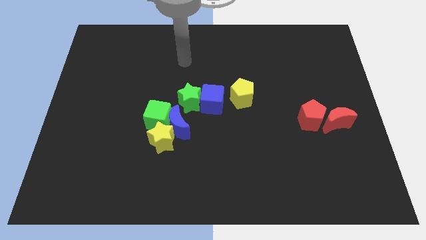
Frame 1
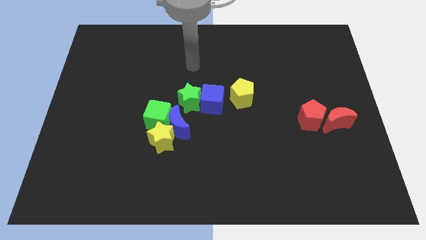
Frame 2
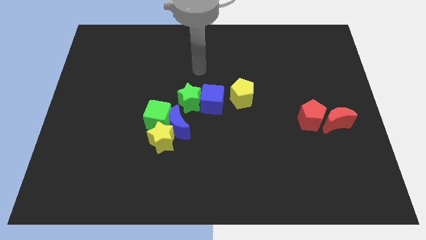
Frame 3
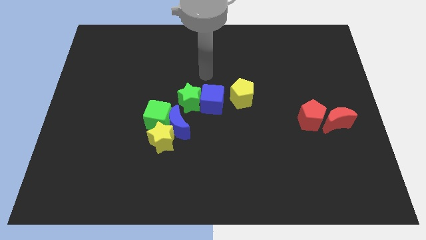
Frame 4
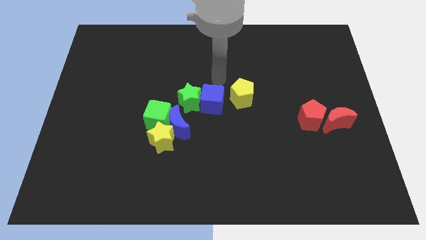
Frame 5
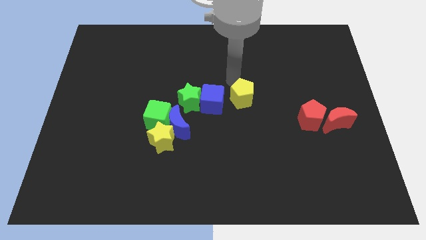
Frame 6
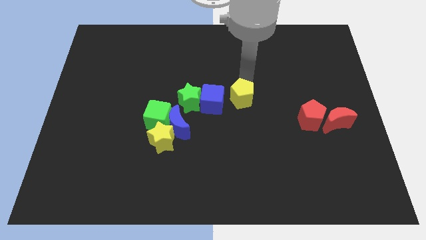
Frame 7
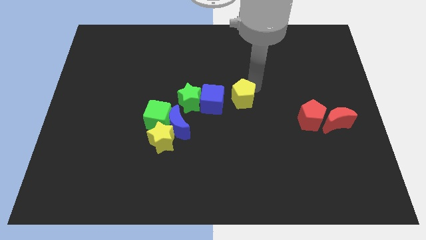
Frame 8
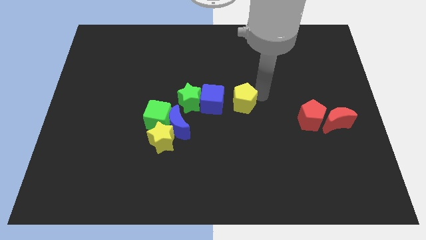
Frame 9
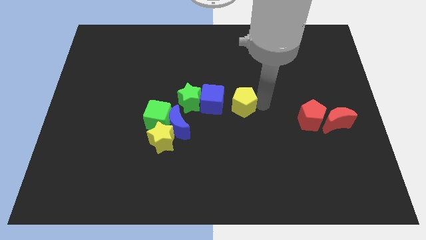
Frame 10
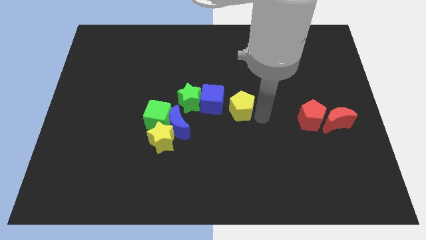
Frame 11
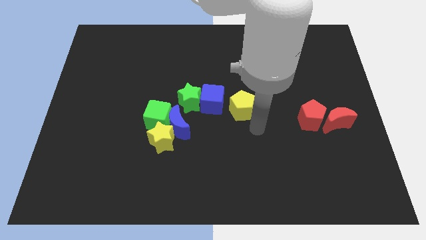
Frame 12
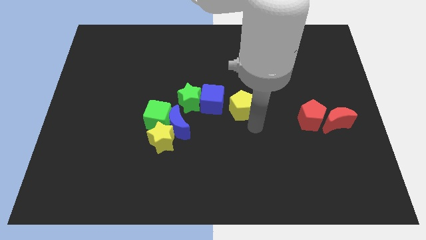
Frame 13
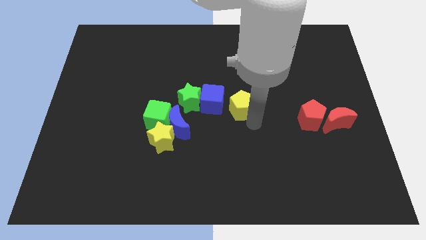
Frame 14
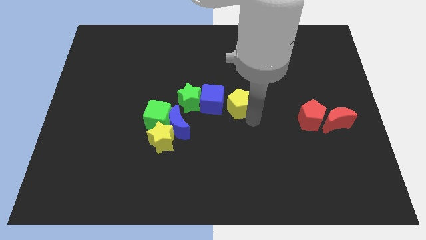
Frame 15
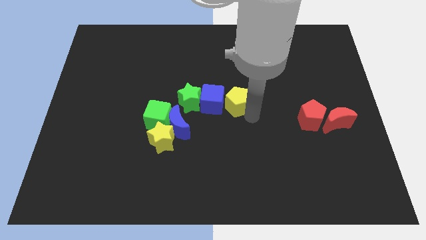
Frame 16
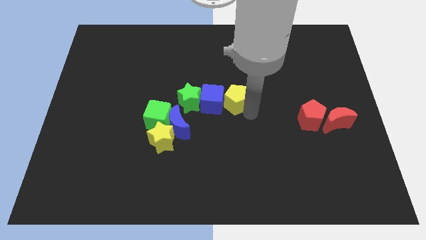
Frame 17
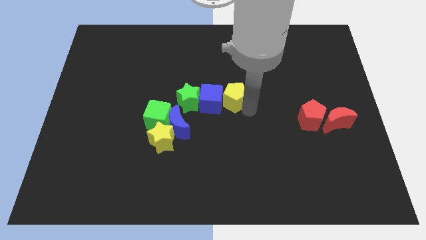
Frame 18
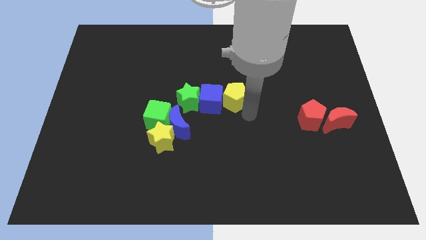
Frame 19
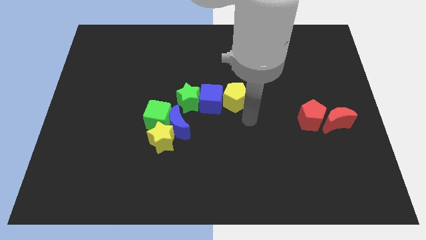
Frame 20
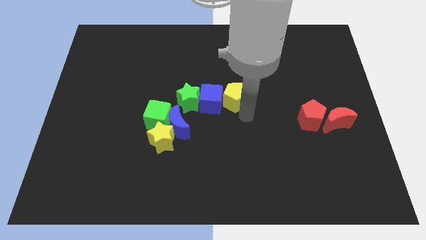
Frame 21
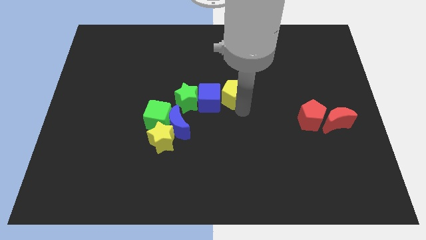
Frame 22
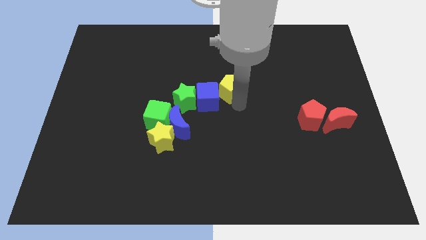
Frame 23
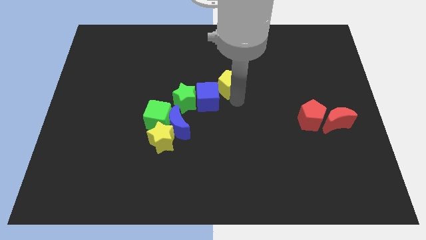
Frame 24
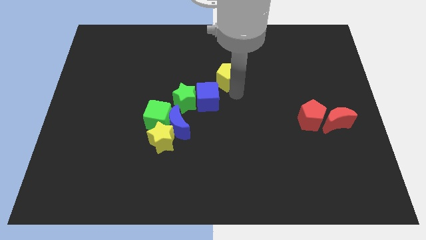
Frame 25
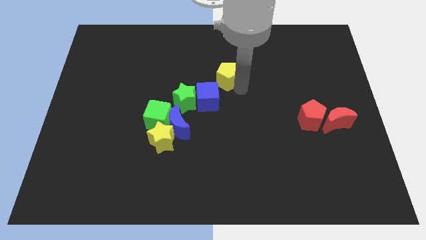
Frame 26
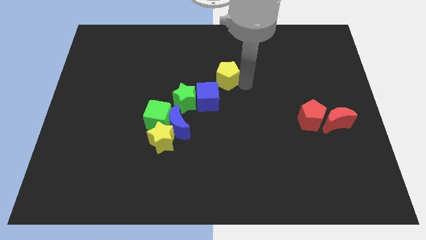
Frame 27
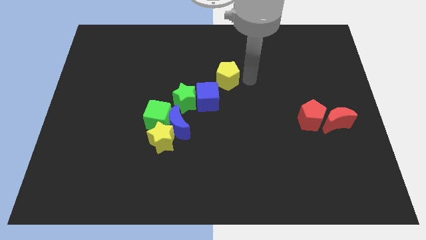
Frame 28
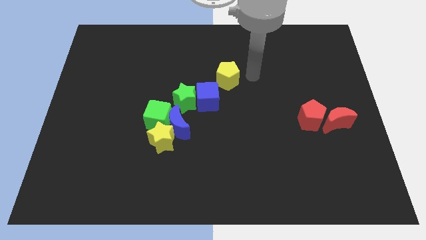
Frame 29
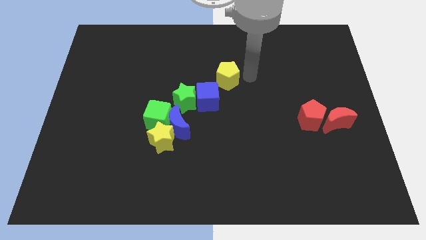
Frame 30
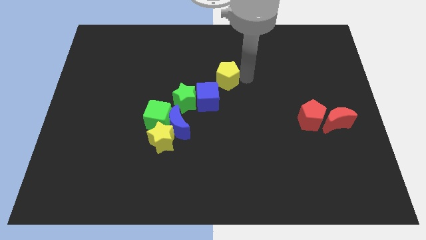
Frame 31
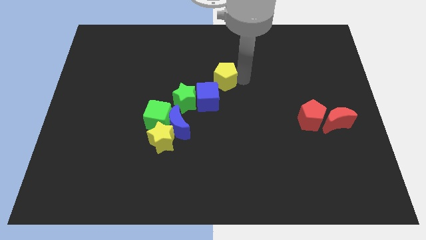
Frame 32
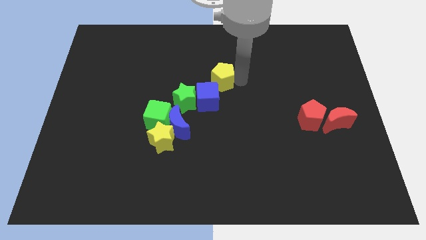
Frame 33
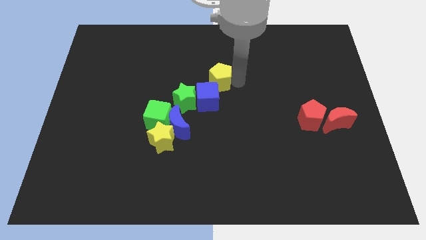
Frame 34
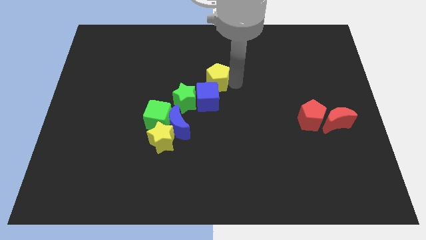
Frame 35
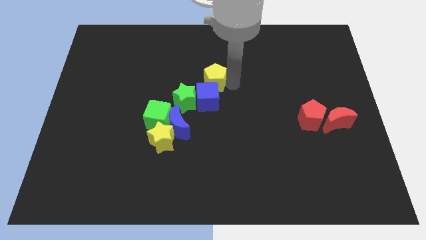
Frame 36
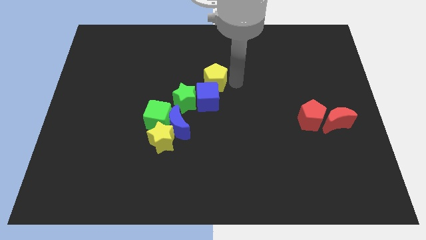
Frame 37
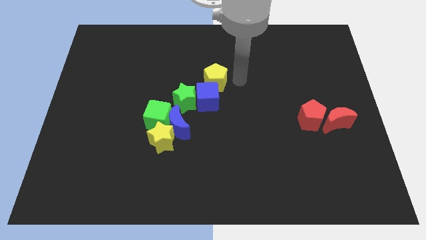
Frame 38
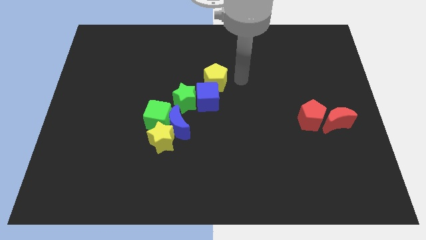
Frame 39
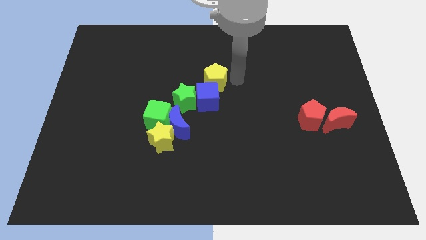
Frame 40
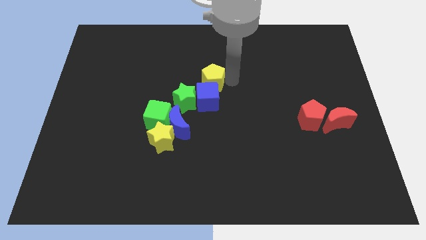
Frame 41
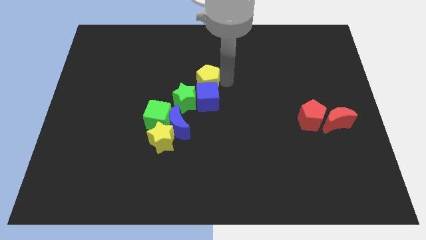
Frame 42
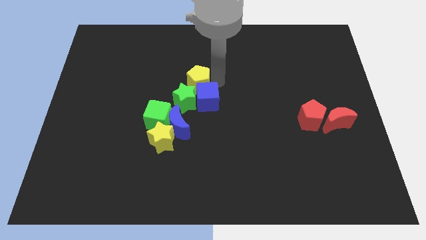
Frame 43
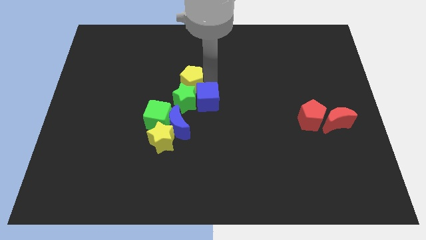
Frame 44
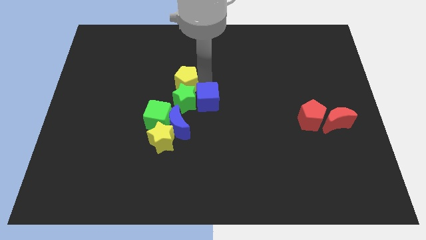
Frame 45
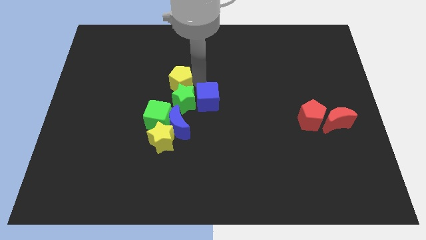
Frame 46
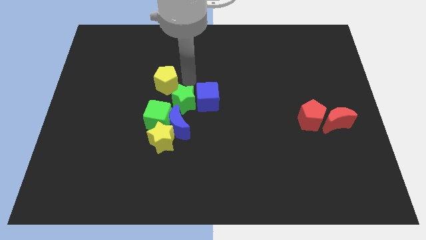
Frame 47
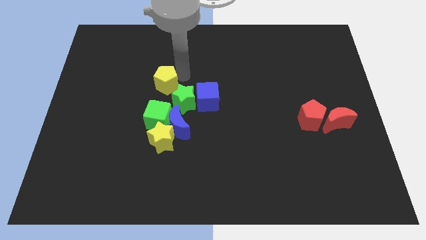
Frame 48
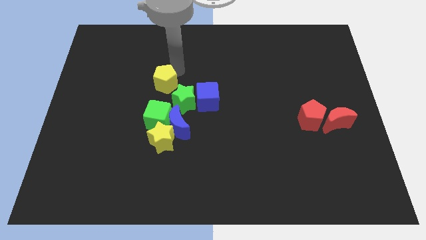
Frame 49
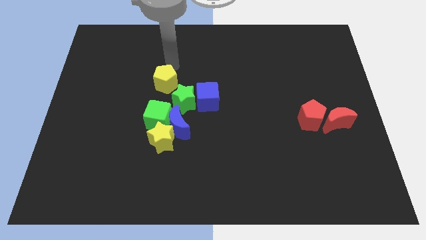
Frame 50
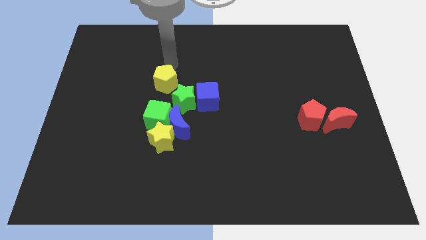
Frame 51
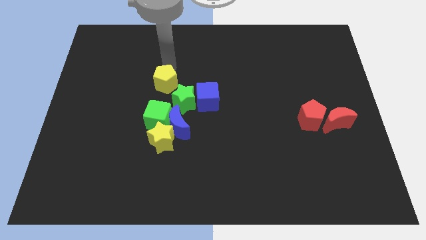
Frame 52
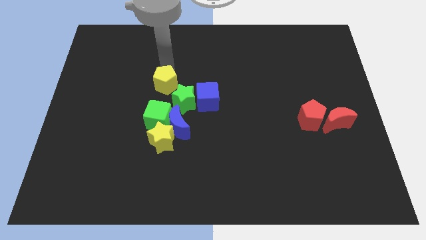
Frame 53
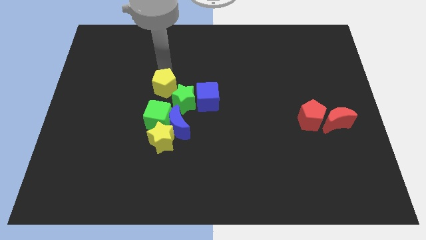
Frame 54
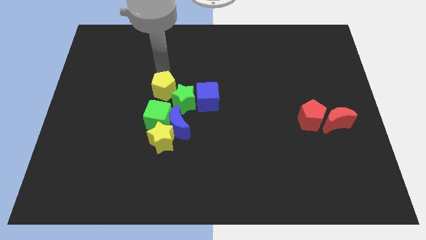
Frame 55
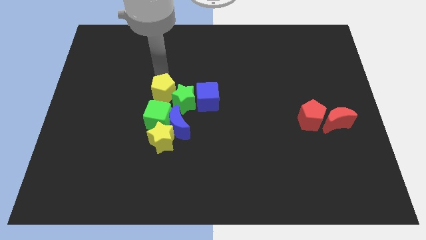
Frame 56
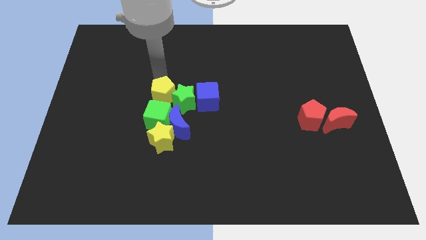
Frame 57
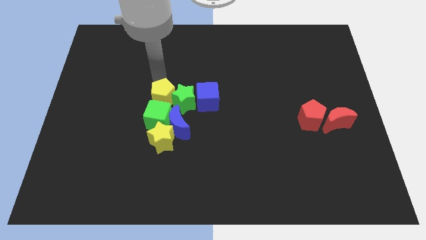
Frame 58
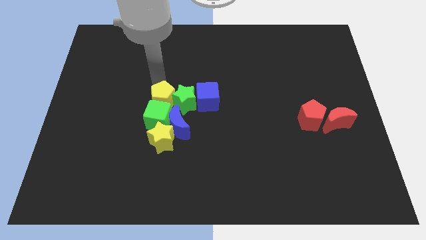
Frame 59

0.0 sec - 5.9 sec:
push the yellow pentagon towards the green cube

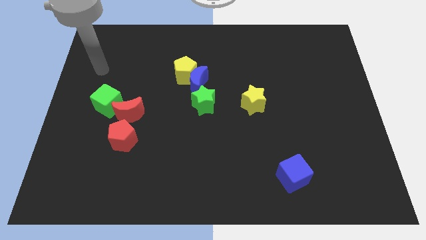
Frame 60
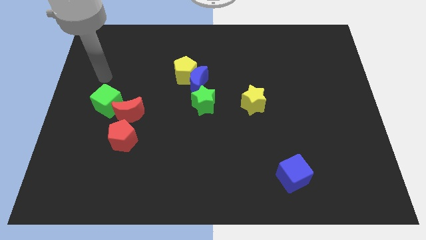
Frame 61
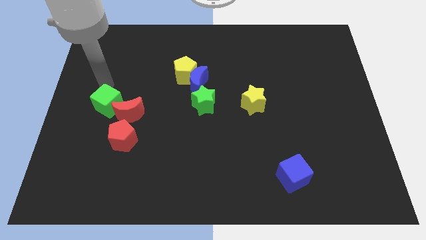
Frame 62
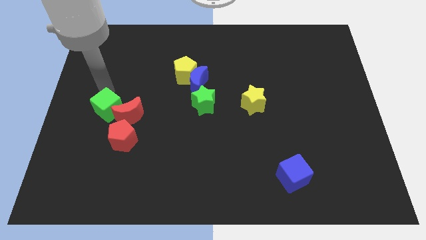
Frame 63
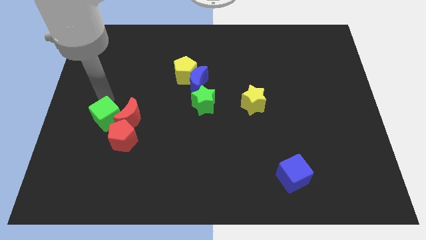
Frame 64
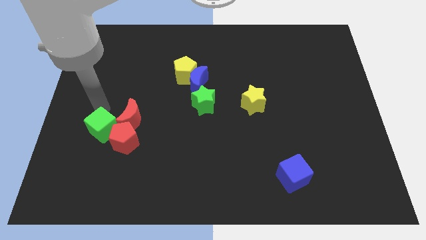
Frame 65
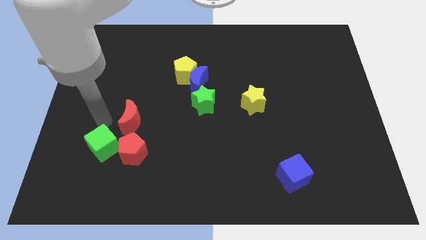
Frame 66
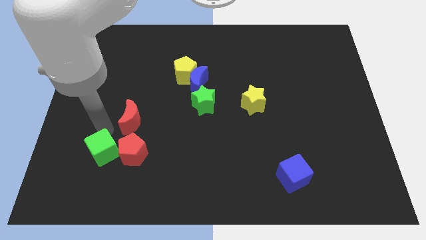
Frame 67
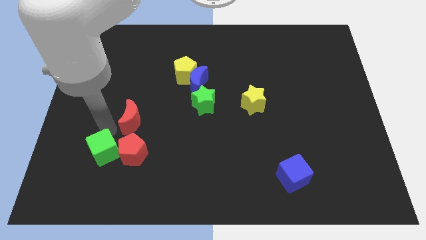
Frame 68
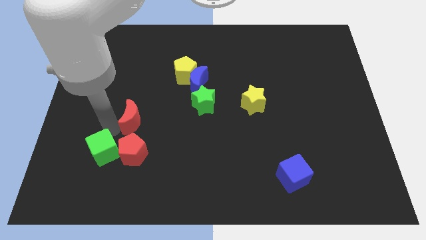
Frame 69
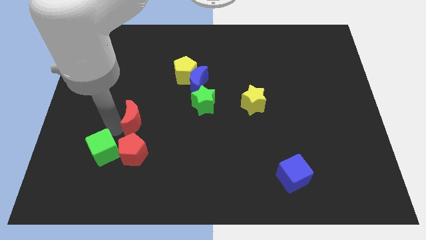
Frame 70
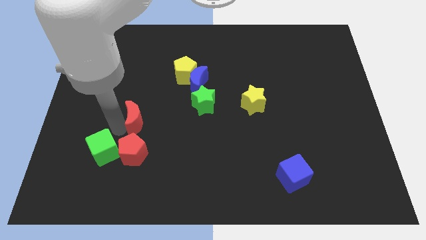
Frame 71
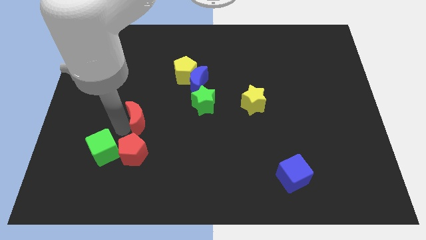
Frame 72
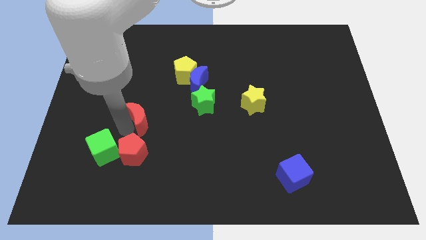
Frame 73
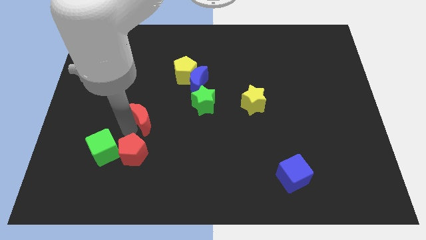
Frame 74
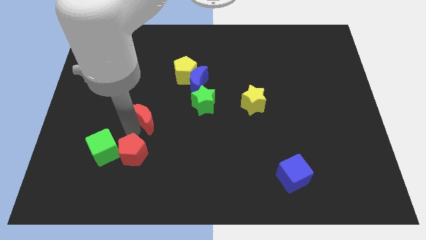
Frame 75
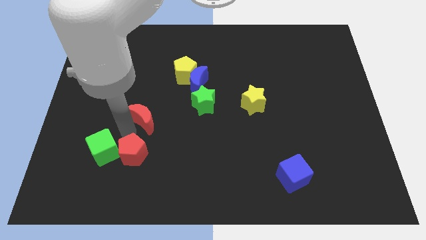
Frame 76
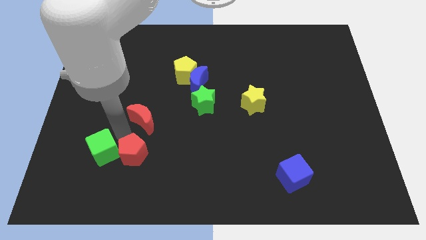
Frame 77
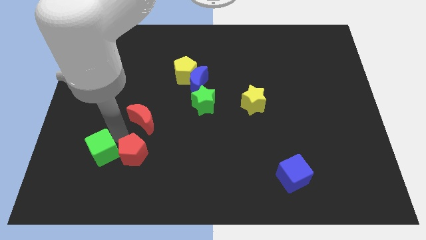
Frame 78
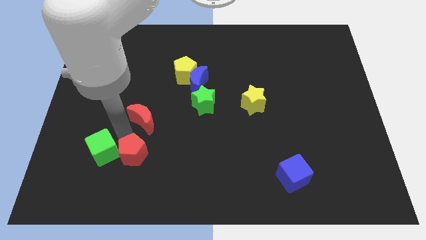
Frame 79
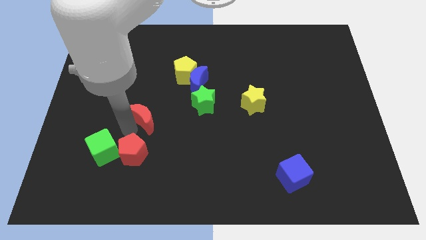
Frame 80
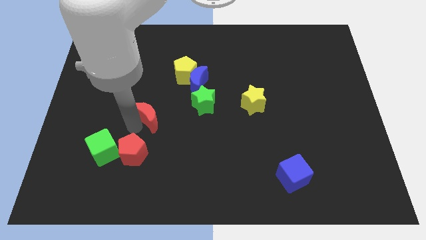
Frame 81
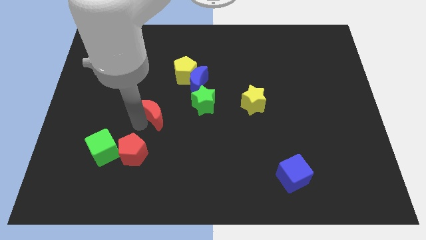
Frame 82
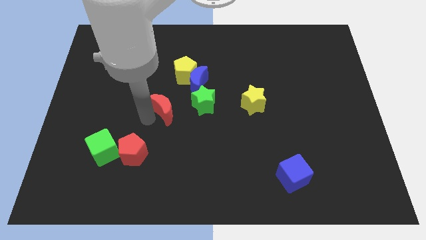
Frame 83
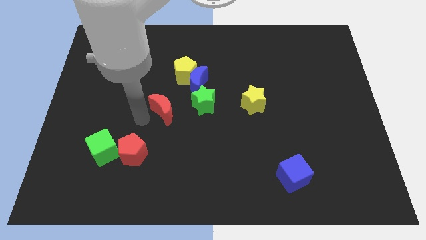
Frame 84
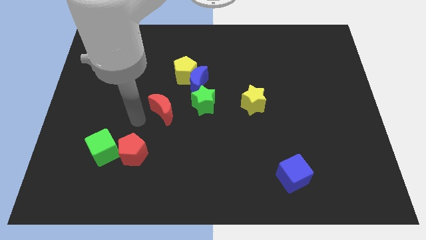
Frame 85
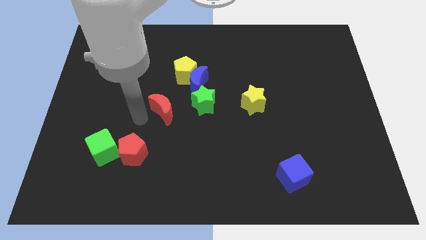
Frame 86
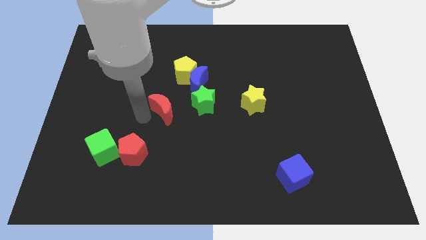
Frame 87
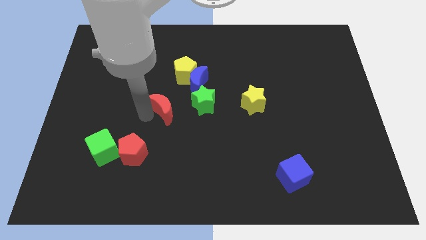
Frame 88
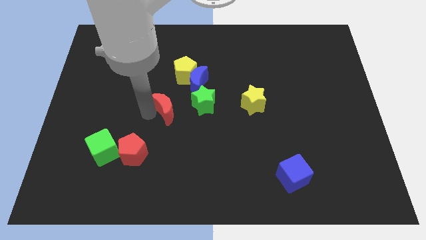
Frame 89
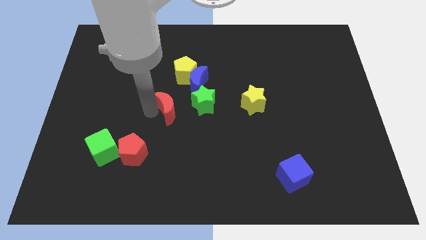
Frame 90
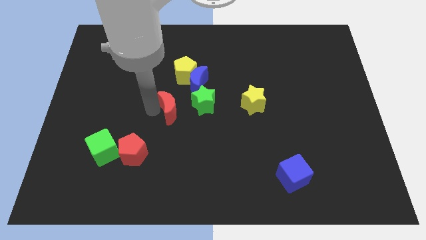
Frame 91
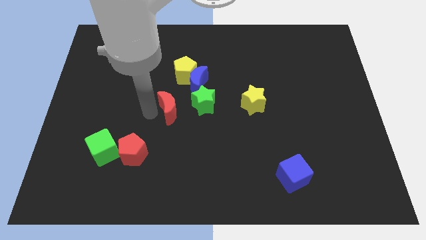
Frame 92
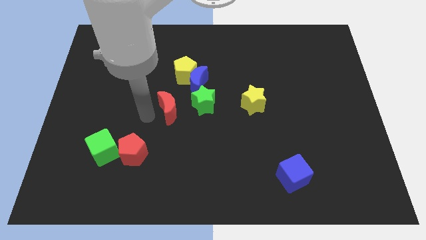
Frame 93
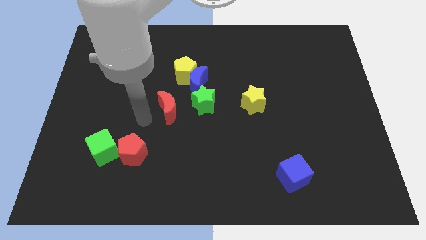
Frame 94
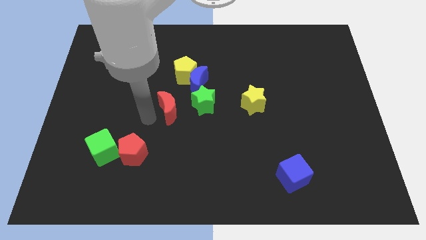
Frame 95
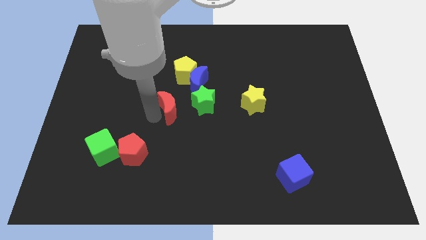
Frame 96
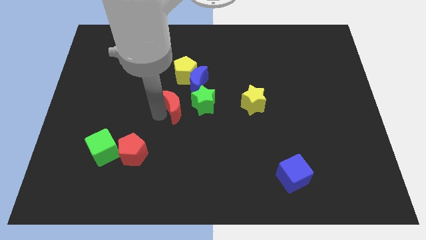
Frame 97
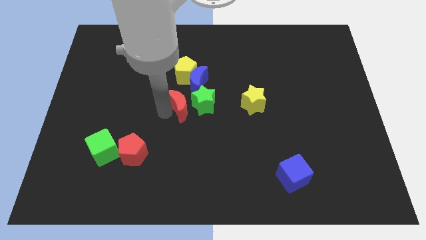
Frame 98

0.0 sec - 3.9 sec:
move the red moon to the green star
